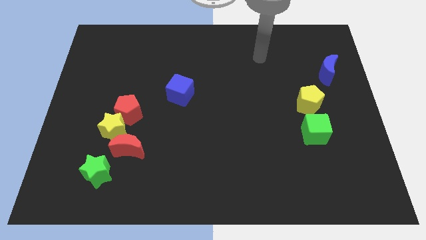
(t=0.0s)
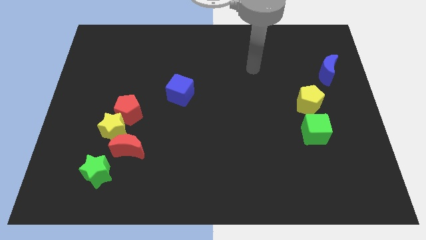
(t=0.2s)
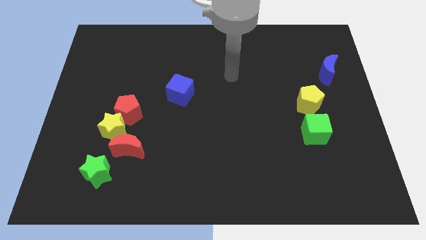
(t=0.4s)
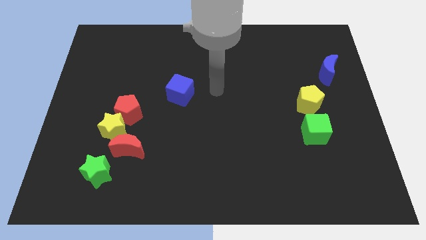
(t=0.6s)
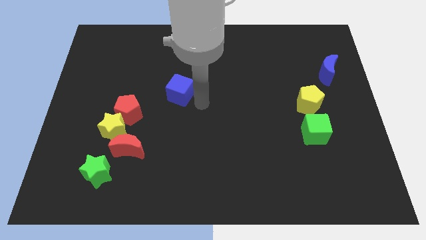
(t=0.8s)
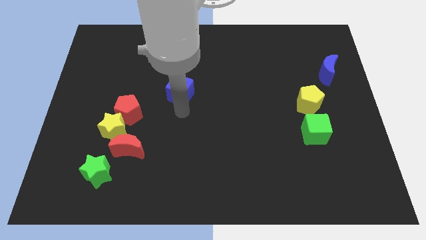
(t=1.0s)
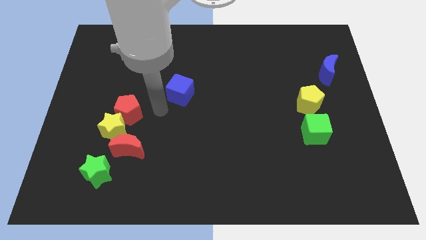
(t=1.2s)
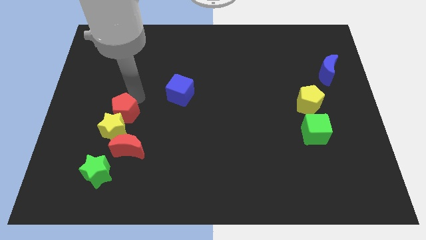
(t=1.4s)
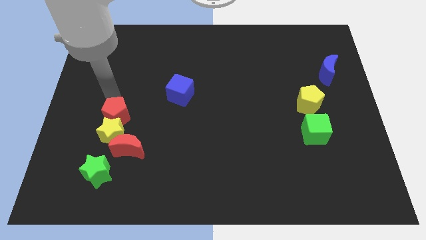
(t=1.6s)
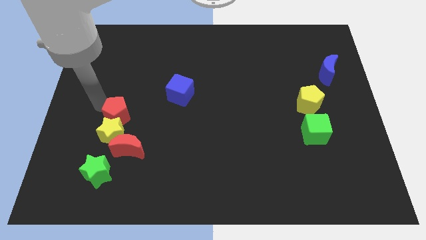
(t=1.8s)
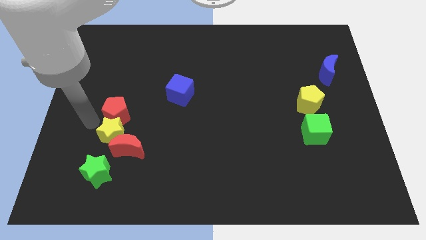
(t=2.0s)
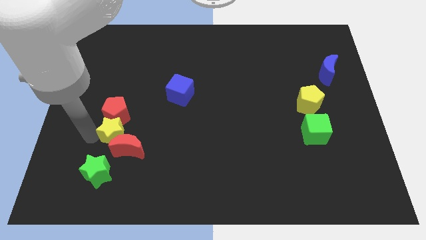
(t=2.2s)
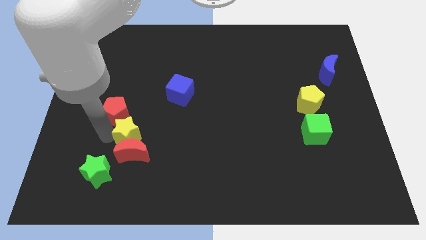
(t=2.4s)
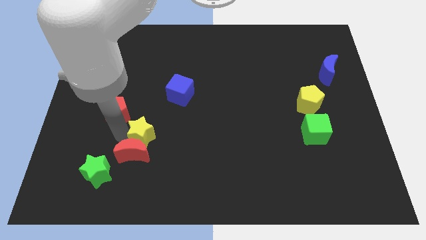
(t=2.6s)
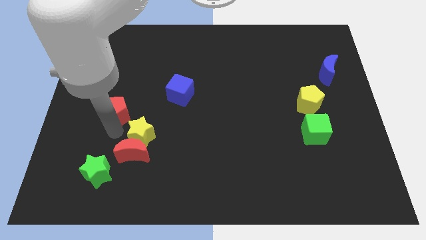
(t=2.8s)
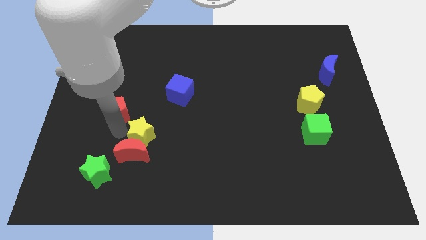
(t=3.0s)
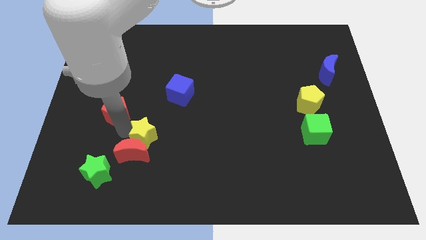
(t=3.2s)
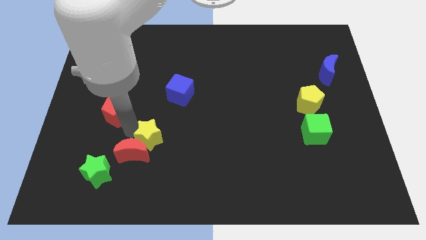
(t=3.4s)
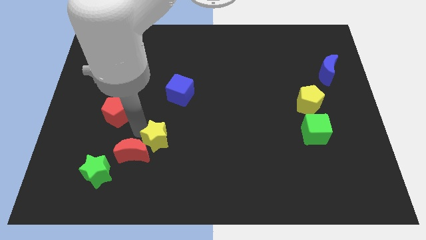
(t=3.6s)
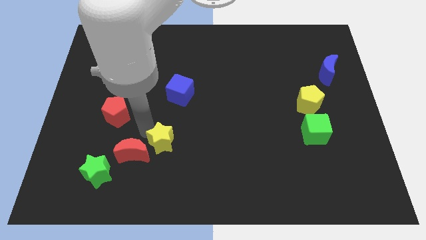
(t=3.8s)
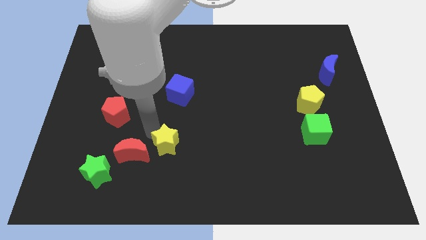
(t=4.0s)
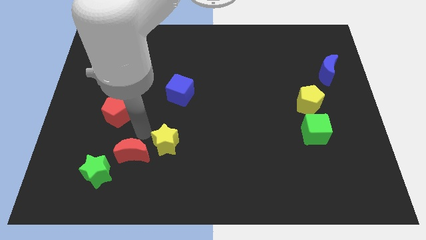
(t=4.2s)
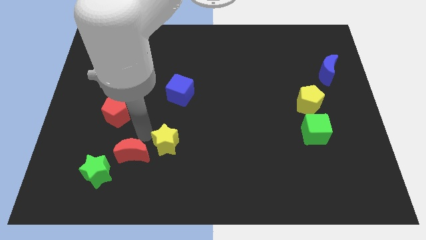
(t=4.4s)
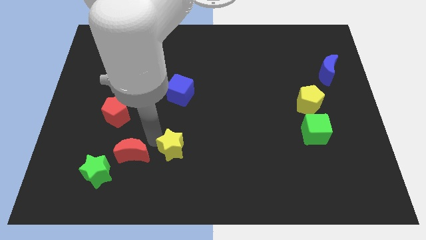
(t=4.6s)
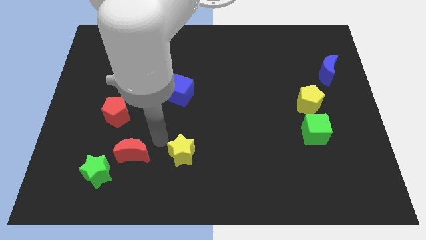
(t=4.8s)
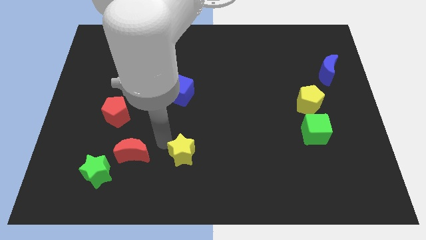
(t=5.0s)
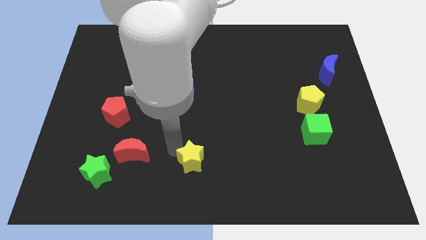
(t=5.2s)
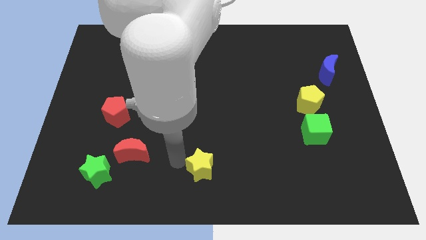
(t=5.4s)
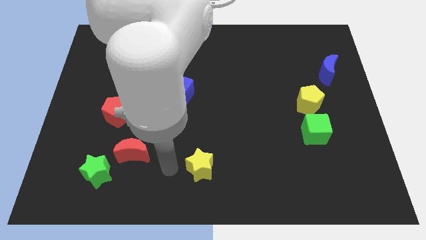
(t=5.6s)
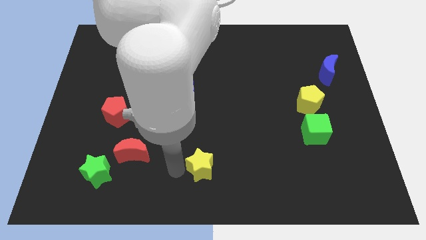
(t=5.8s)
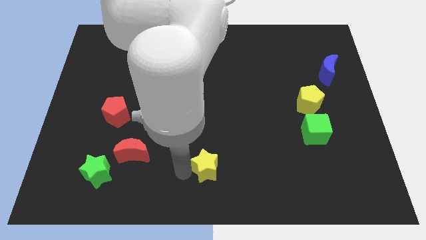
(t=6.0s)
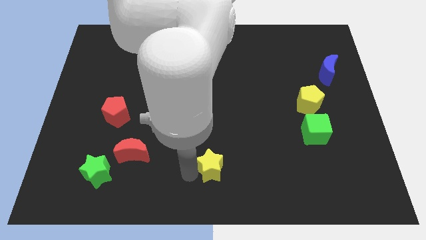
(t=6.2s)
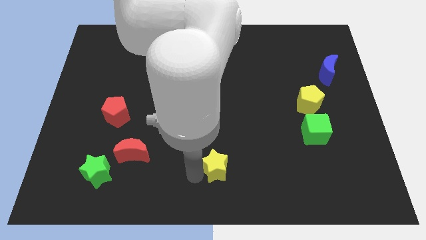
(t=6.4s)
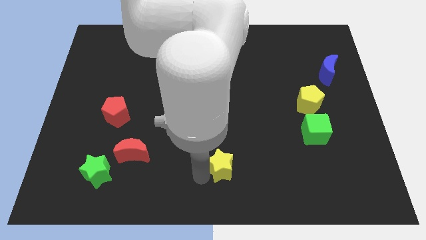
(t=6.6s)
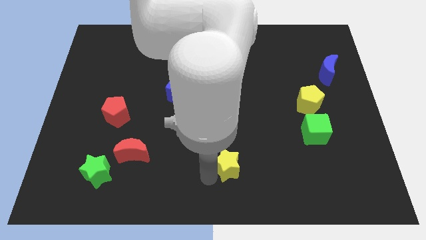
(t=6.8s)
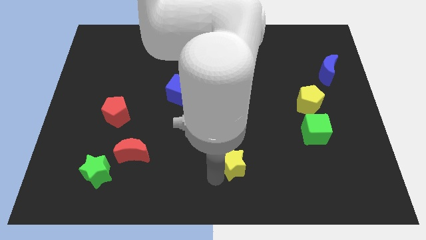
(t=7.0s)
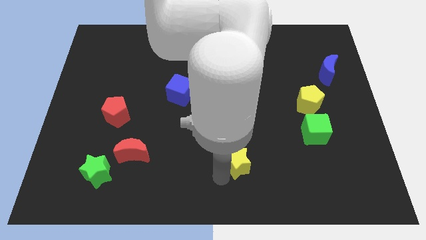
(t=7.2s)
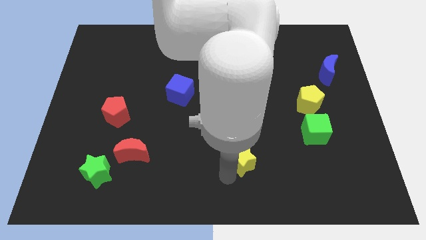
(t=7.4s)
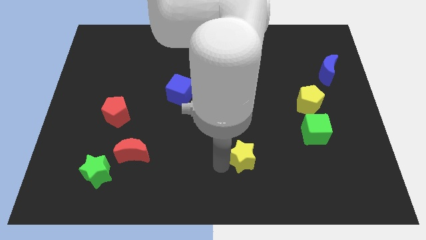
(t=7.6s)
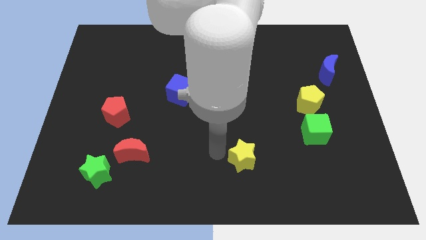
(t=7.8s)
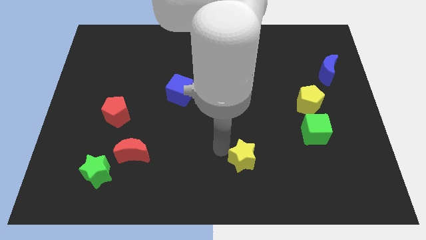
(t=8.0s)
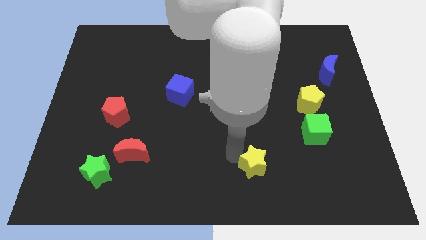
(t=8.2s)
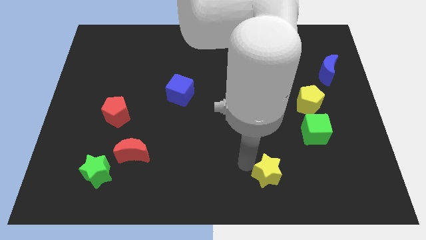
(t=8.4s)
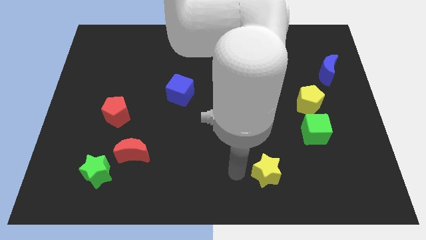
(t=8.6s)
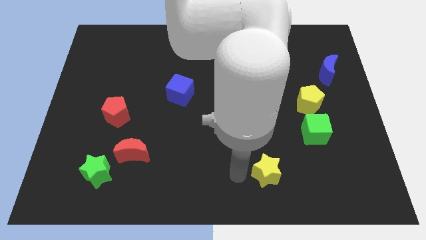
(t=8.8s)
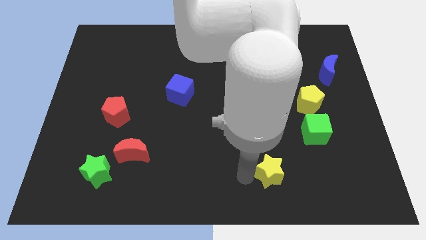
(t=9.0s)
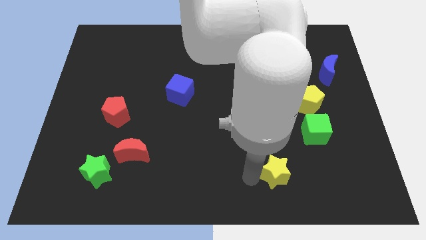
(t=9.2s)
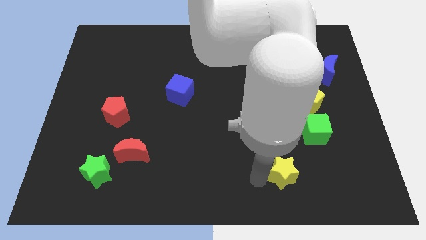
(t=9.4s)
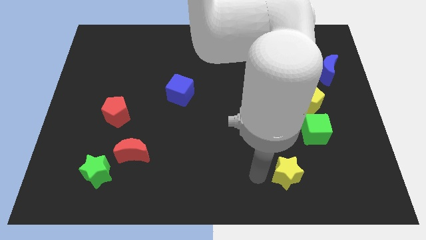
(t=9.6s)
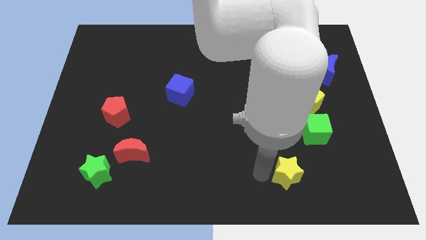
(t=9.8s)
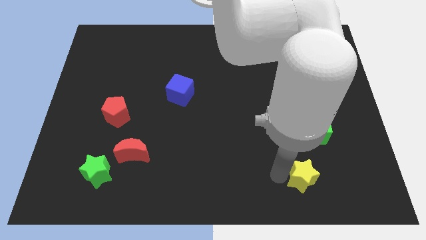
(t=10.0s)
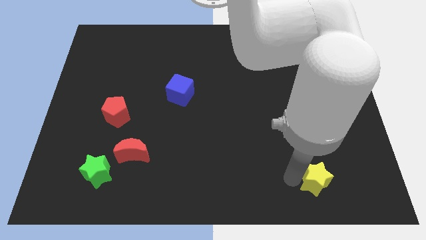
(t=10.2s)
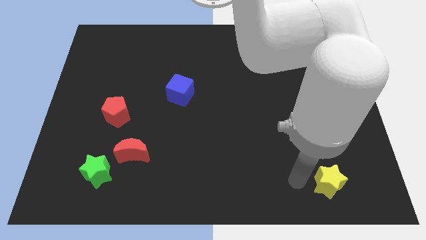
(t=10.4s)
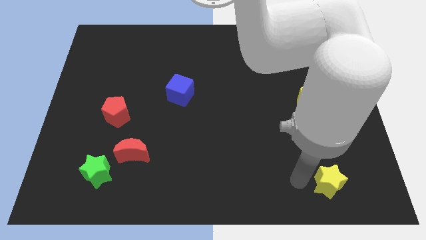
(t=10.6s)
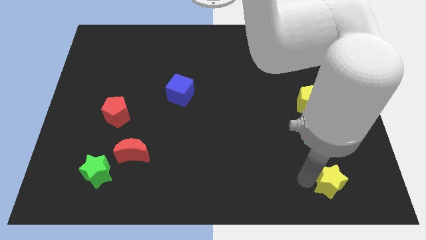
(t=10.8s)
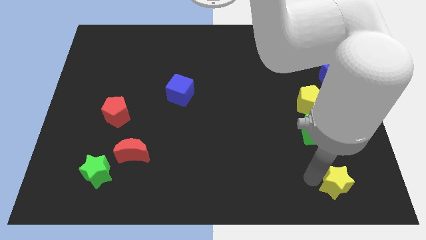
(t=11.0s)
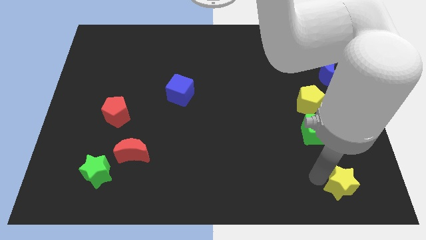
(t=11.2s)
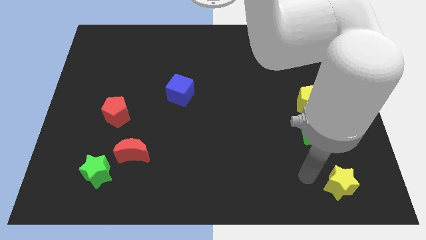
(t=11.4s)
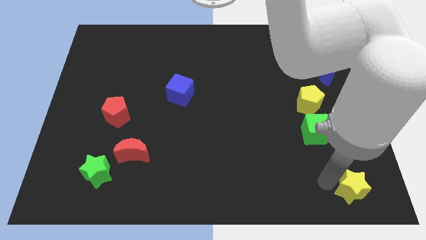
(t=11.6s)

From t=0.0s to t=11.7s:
push the yellow star to the bottom right corner

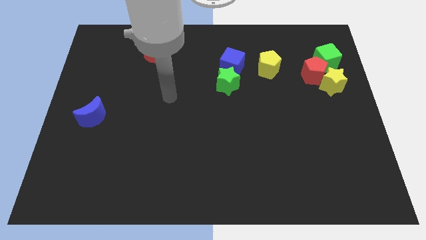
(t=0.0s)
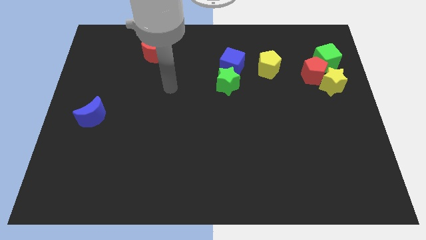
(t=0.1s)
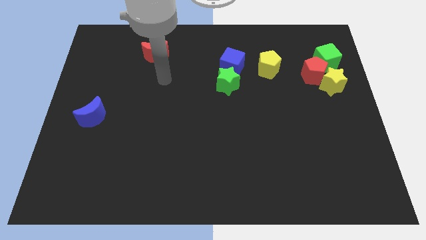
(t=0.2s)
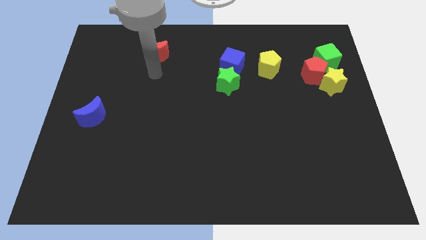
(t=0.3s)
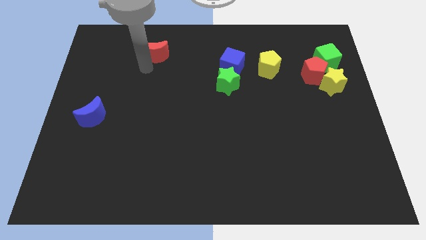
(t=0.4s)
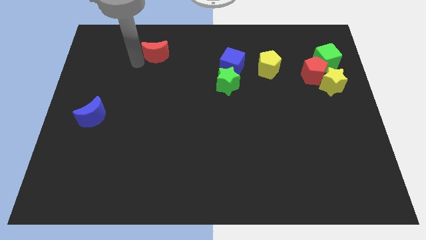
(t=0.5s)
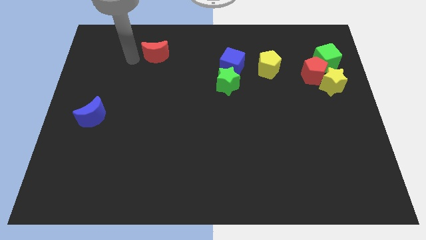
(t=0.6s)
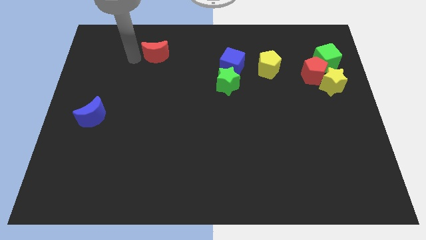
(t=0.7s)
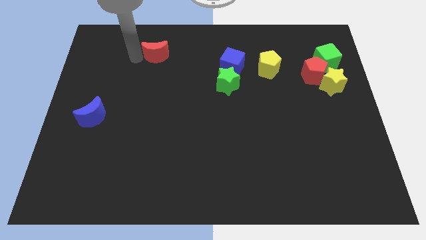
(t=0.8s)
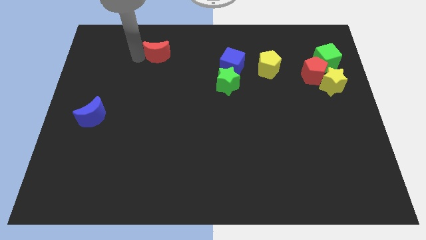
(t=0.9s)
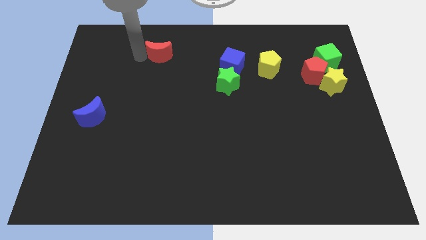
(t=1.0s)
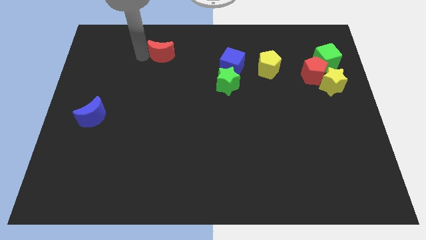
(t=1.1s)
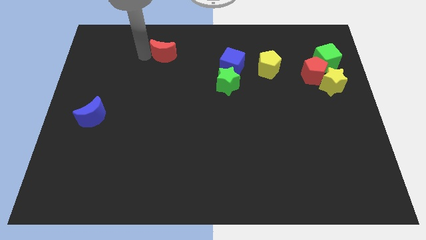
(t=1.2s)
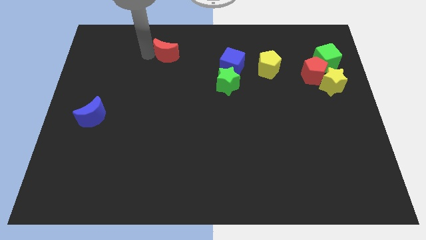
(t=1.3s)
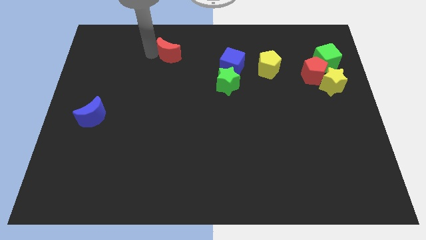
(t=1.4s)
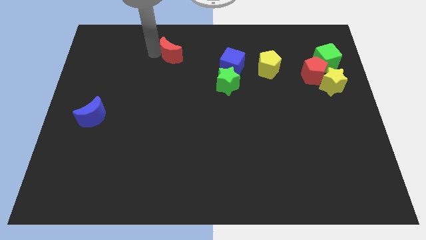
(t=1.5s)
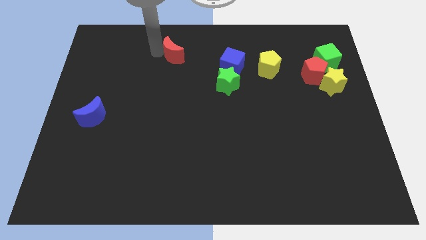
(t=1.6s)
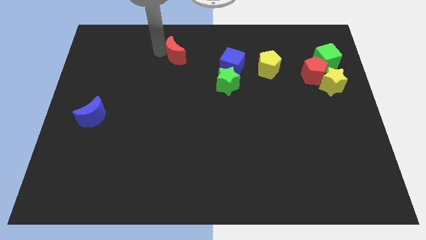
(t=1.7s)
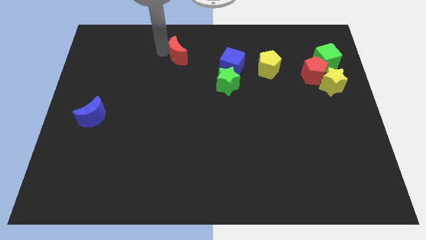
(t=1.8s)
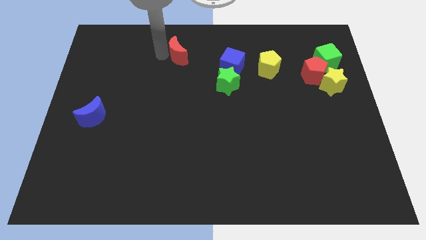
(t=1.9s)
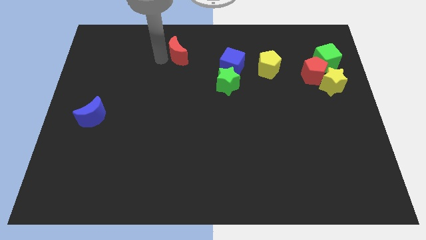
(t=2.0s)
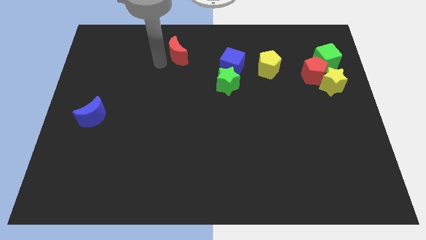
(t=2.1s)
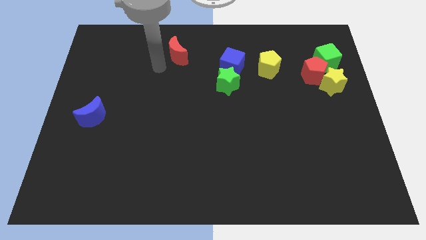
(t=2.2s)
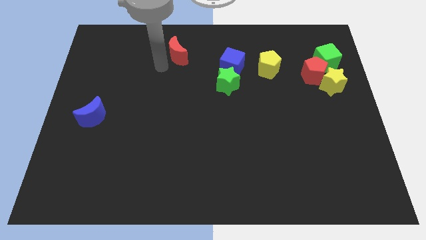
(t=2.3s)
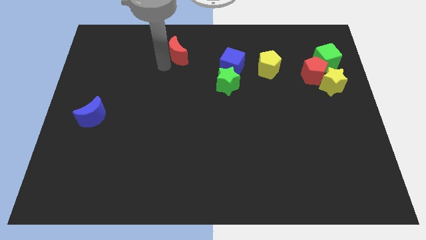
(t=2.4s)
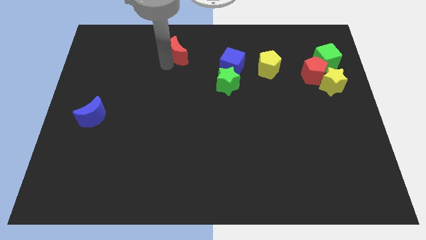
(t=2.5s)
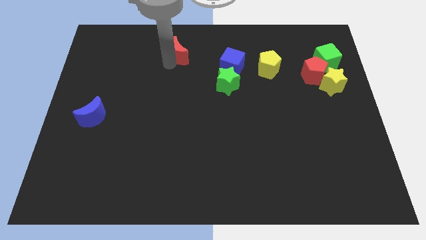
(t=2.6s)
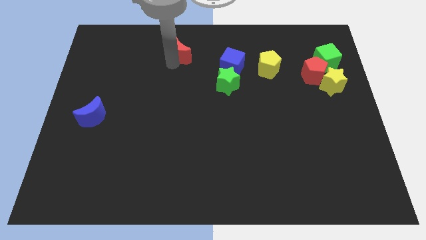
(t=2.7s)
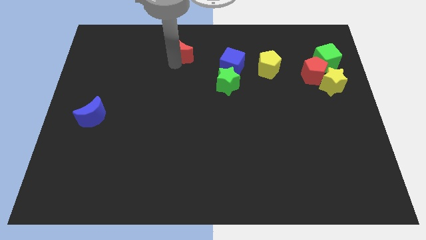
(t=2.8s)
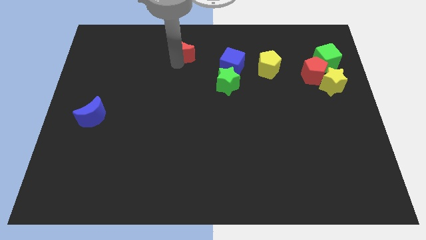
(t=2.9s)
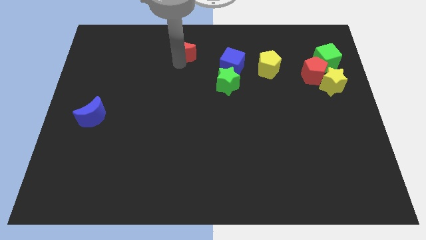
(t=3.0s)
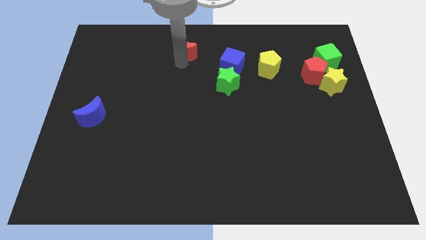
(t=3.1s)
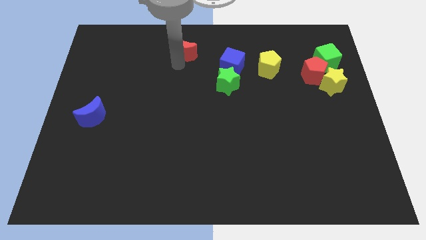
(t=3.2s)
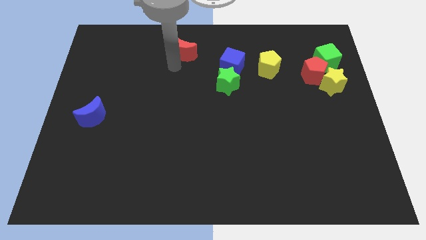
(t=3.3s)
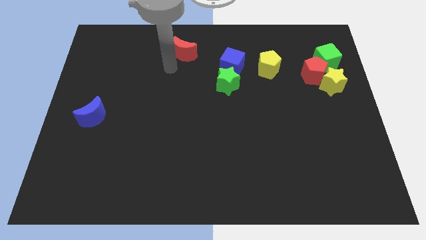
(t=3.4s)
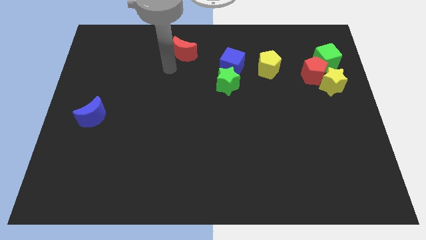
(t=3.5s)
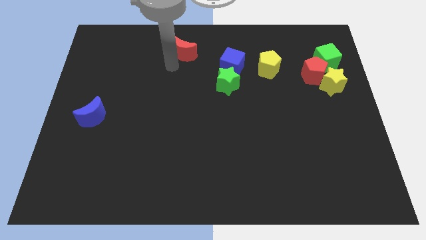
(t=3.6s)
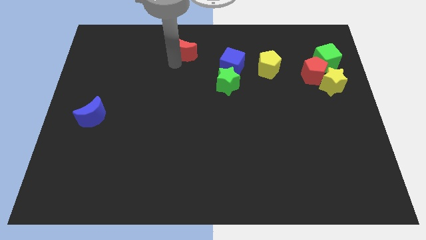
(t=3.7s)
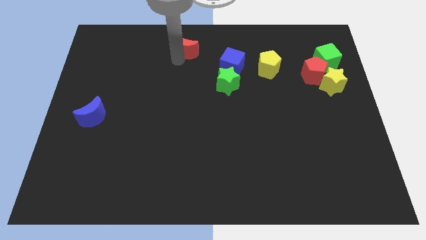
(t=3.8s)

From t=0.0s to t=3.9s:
move the red moon to the towards your base
